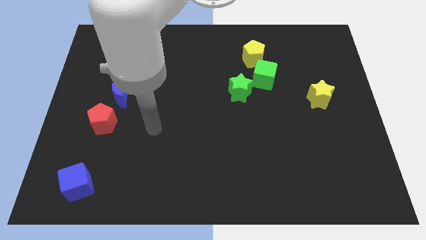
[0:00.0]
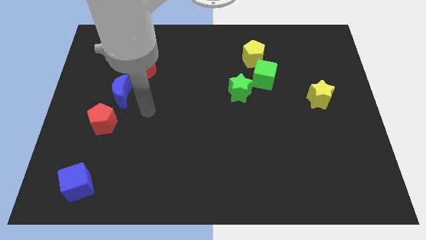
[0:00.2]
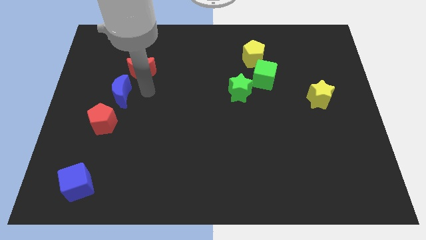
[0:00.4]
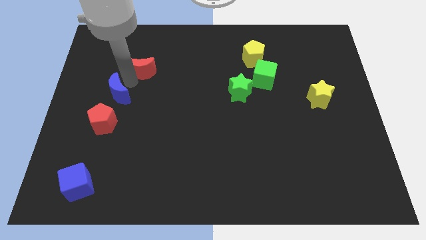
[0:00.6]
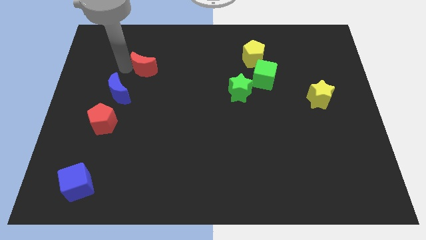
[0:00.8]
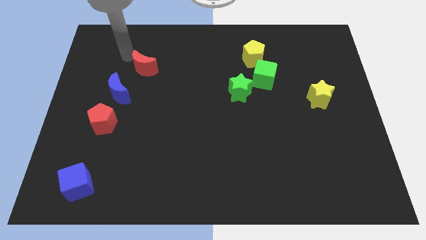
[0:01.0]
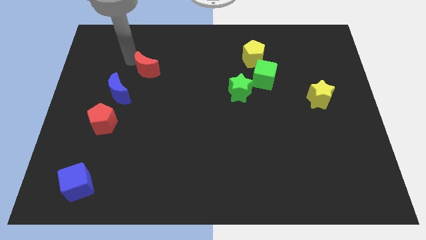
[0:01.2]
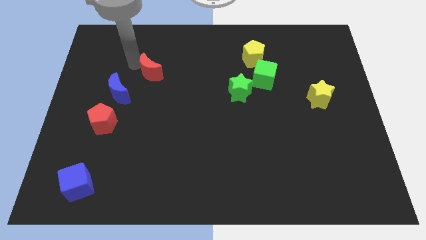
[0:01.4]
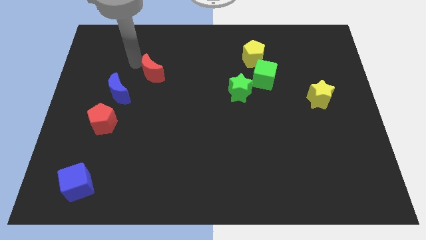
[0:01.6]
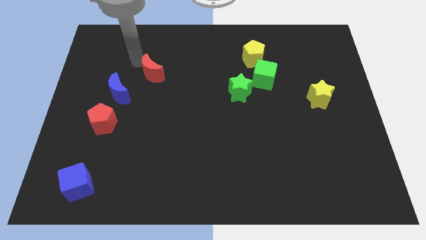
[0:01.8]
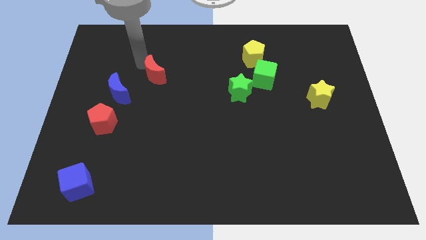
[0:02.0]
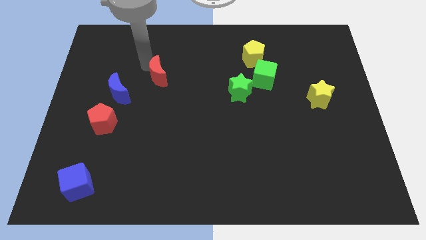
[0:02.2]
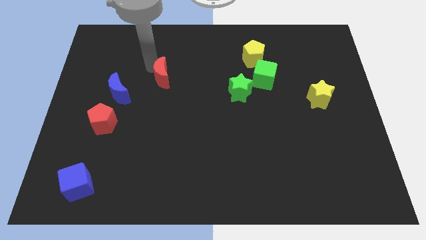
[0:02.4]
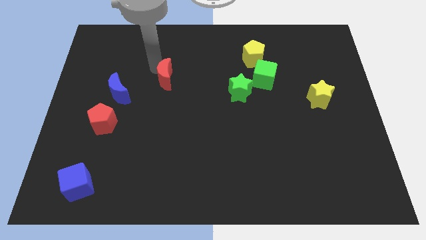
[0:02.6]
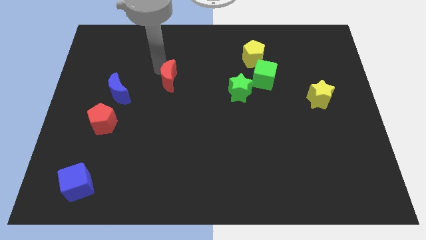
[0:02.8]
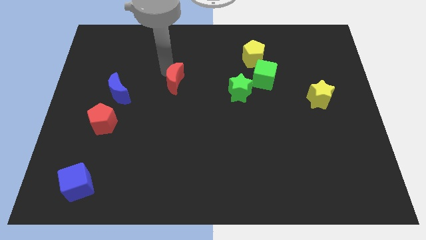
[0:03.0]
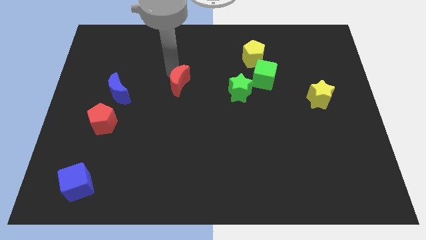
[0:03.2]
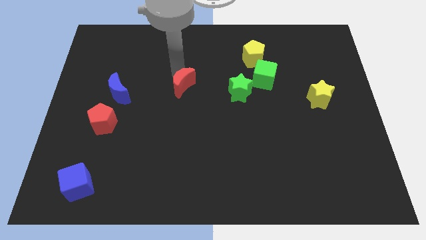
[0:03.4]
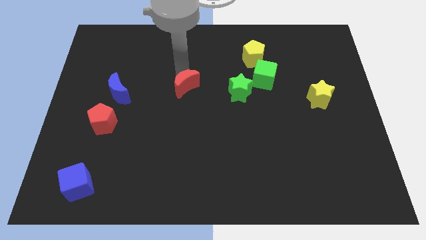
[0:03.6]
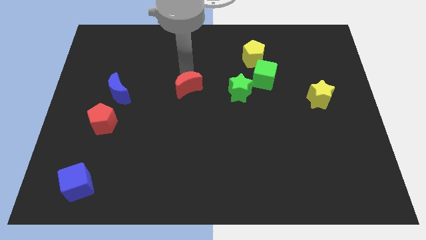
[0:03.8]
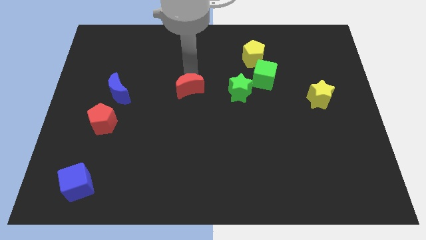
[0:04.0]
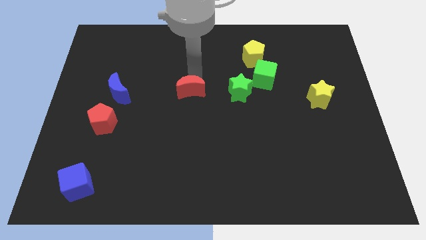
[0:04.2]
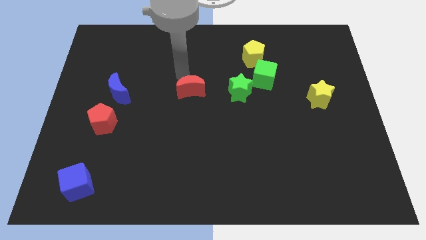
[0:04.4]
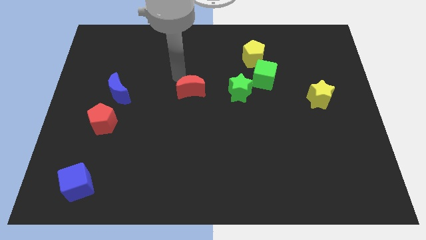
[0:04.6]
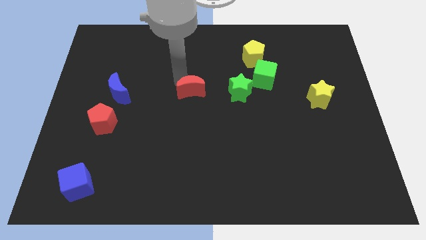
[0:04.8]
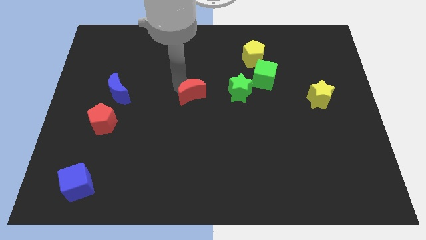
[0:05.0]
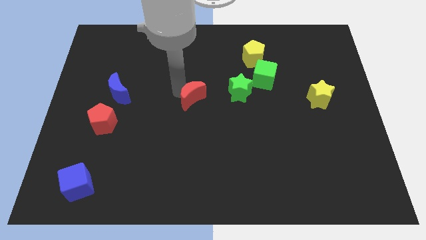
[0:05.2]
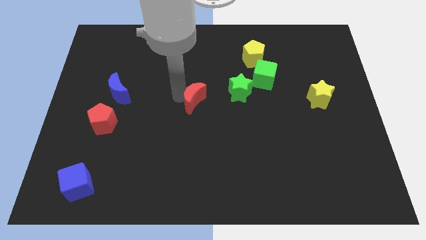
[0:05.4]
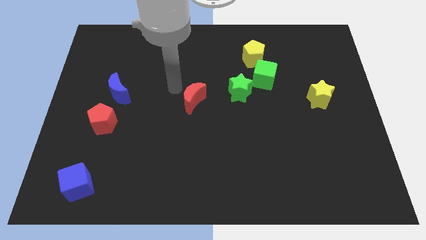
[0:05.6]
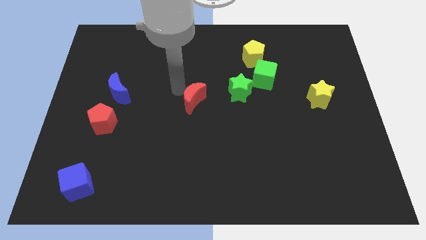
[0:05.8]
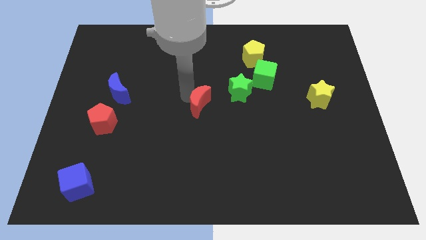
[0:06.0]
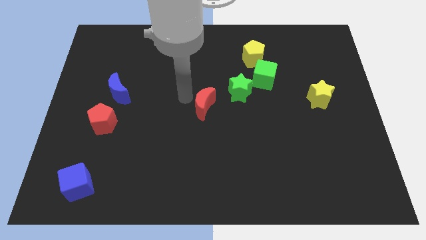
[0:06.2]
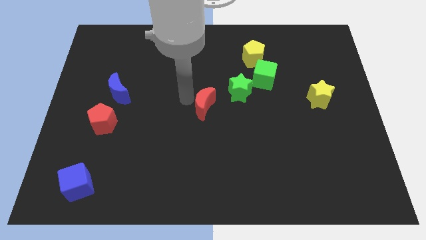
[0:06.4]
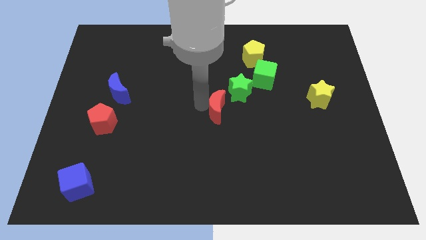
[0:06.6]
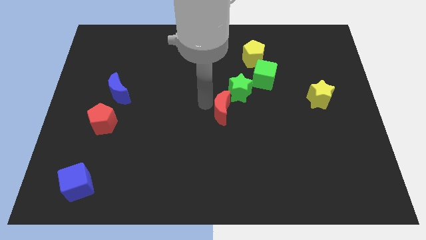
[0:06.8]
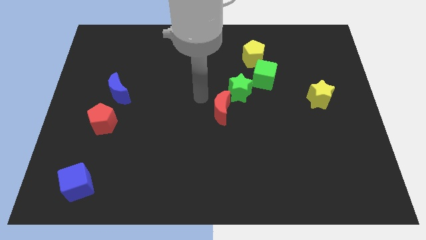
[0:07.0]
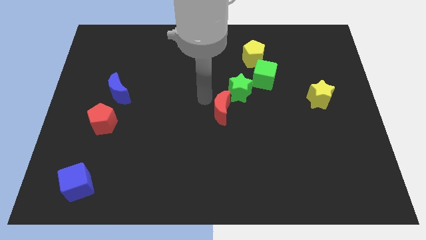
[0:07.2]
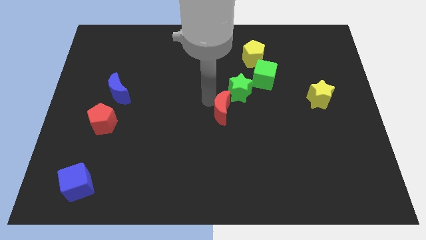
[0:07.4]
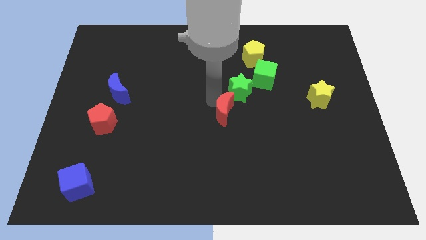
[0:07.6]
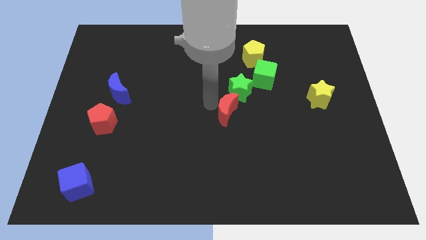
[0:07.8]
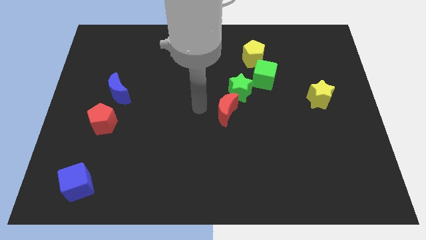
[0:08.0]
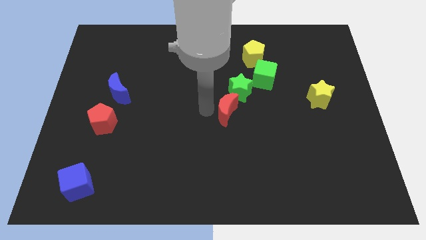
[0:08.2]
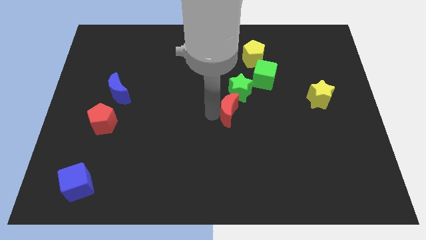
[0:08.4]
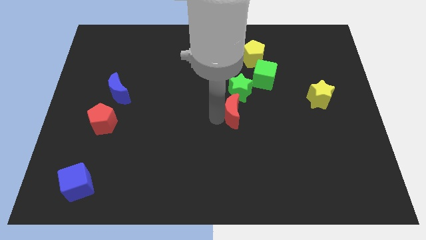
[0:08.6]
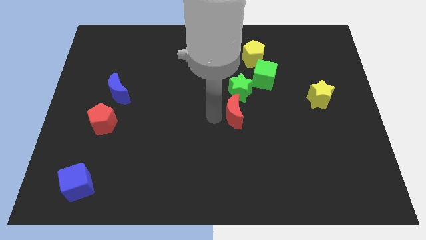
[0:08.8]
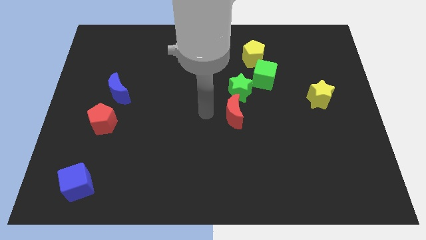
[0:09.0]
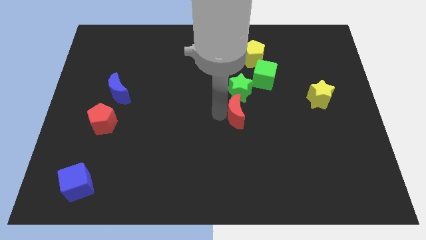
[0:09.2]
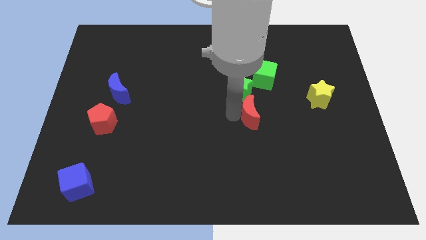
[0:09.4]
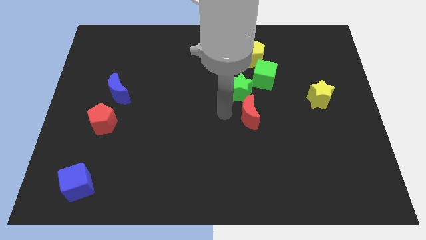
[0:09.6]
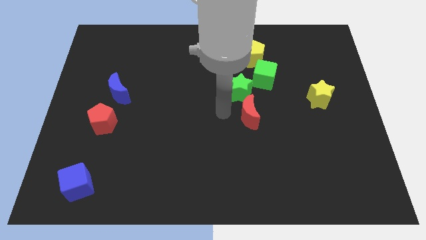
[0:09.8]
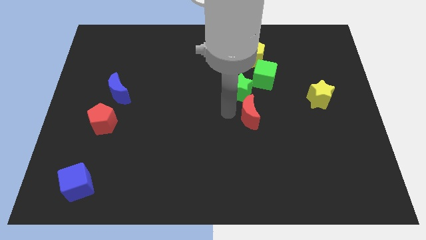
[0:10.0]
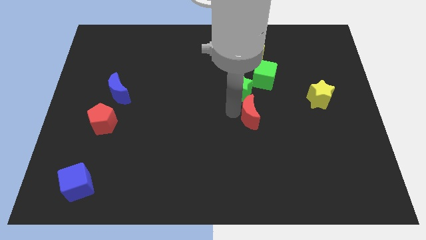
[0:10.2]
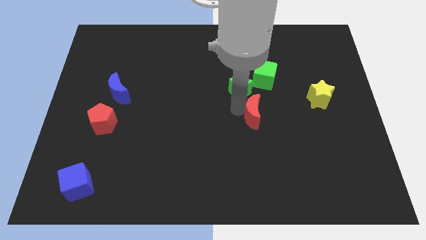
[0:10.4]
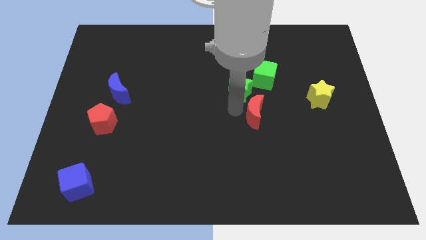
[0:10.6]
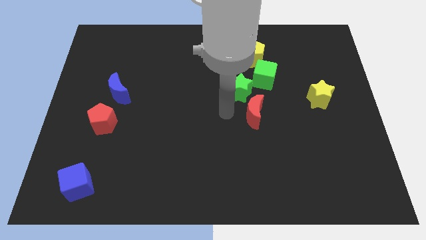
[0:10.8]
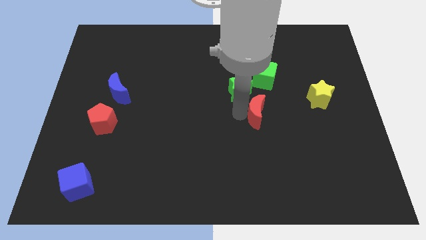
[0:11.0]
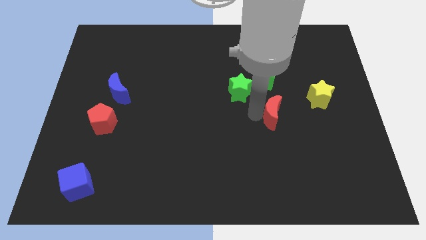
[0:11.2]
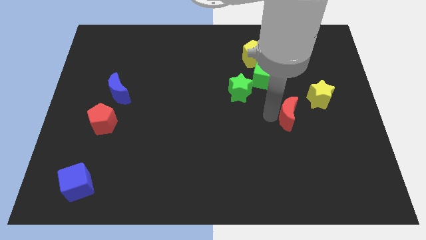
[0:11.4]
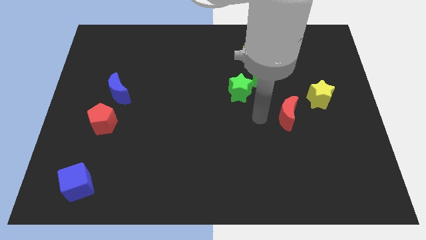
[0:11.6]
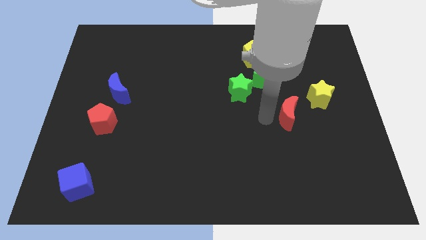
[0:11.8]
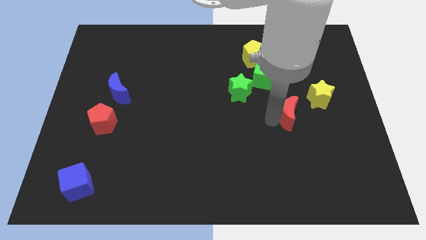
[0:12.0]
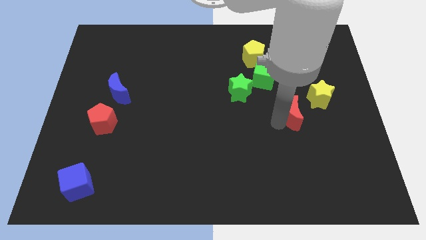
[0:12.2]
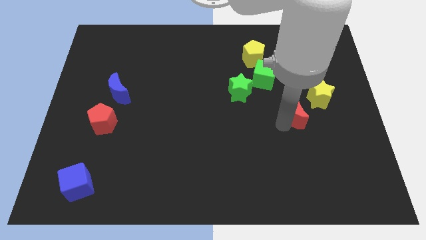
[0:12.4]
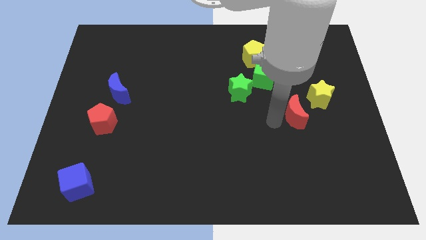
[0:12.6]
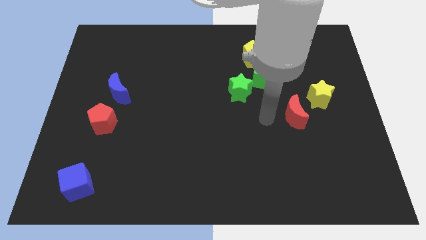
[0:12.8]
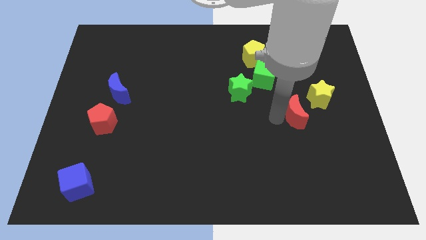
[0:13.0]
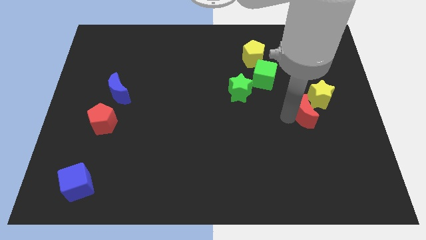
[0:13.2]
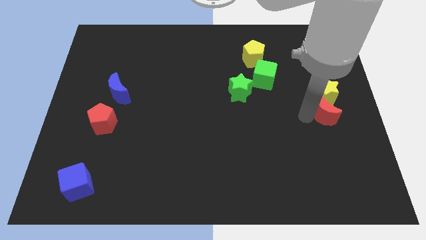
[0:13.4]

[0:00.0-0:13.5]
push the red moon to the center right

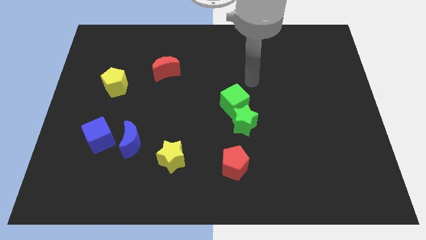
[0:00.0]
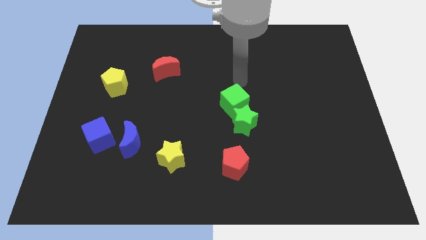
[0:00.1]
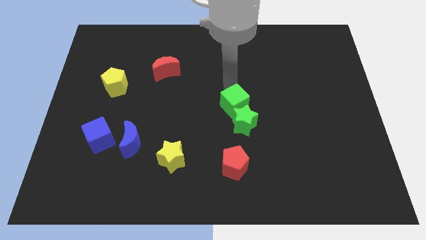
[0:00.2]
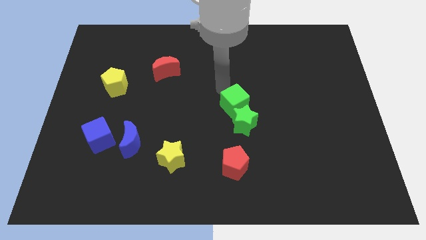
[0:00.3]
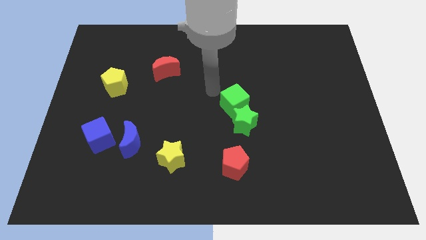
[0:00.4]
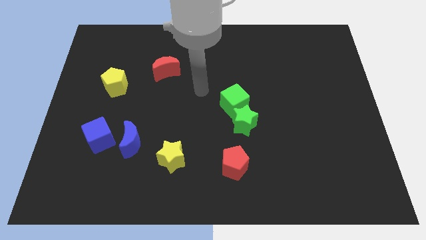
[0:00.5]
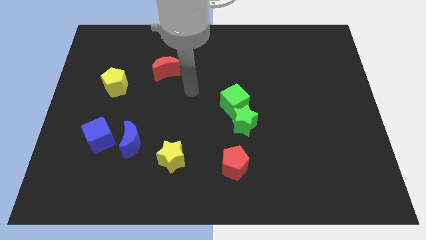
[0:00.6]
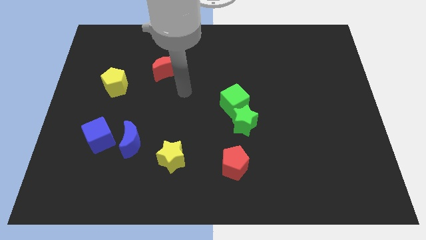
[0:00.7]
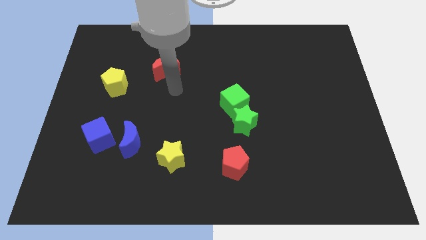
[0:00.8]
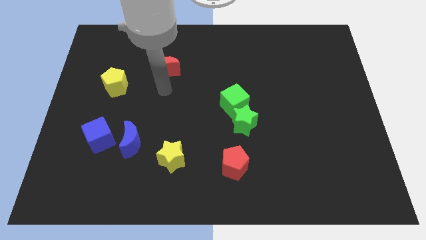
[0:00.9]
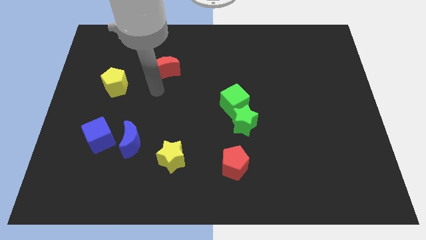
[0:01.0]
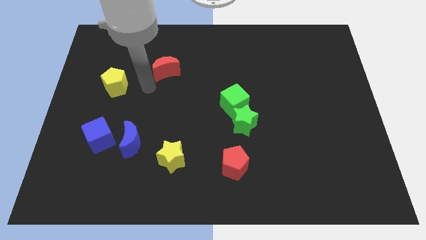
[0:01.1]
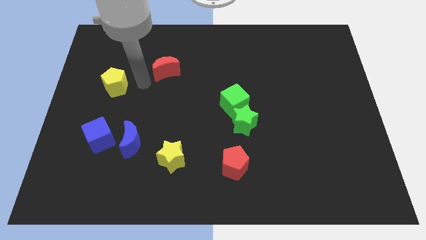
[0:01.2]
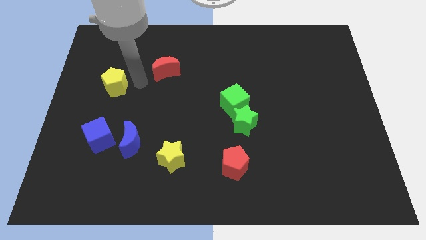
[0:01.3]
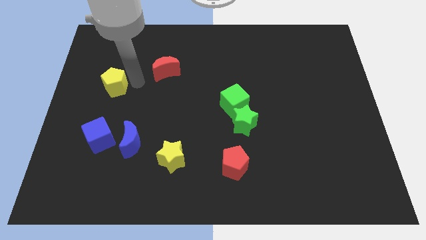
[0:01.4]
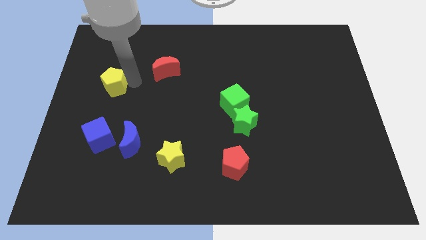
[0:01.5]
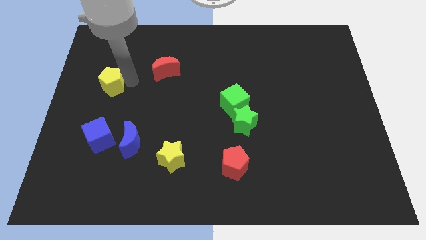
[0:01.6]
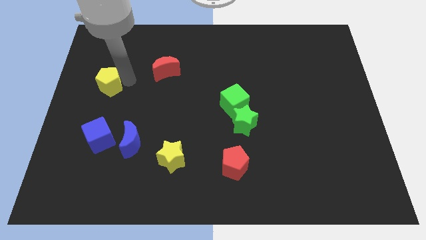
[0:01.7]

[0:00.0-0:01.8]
slide the yellow pentagon to the left side of the board
